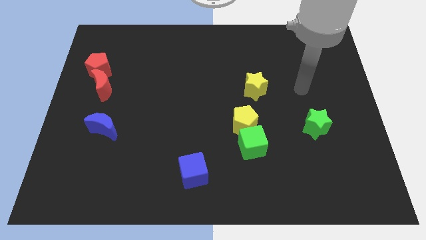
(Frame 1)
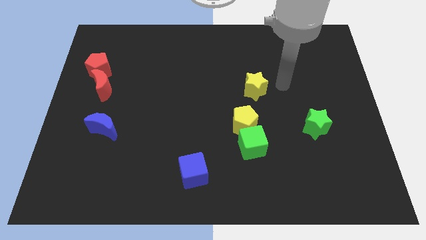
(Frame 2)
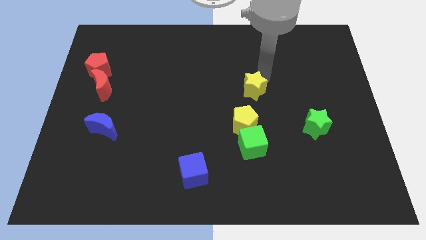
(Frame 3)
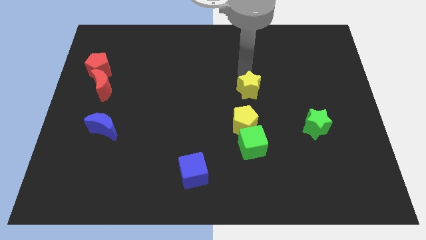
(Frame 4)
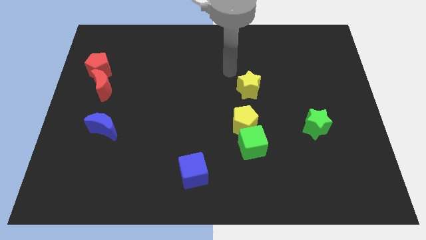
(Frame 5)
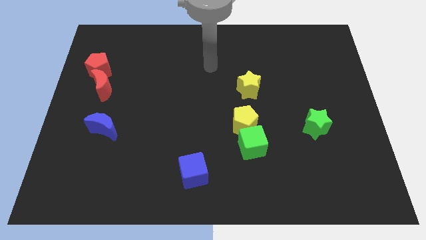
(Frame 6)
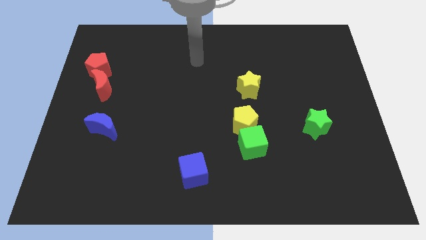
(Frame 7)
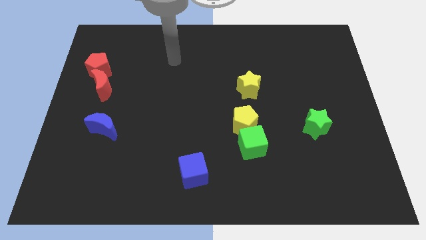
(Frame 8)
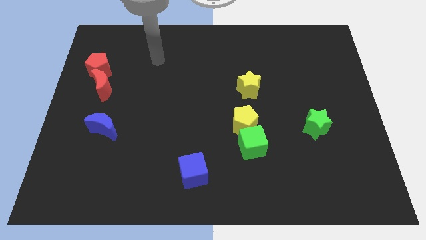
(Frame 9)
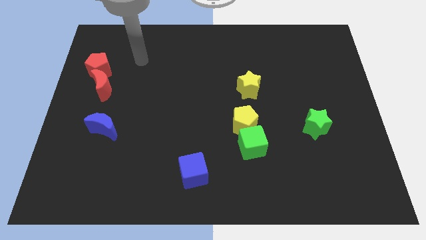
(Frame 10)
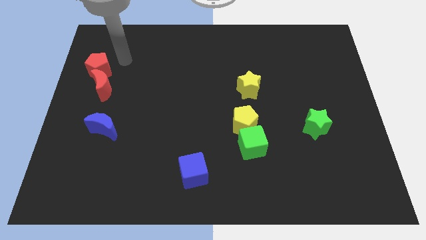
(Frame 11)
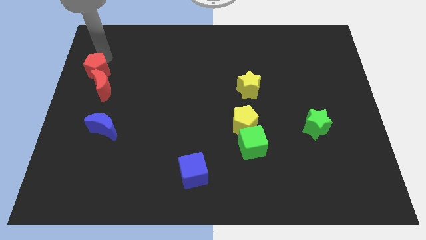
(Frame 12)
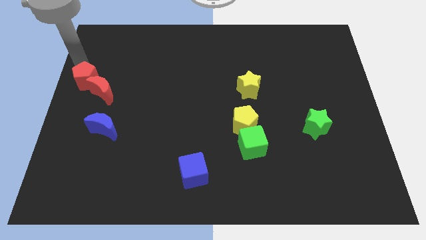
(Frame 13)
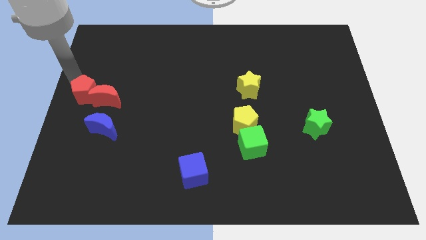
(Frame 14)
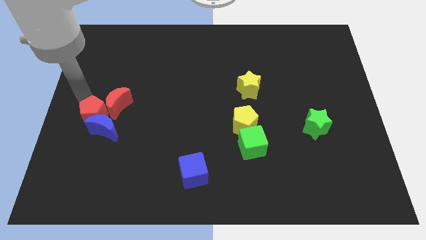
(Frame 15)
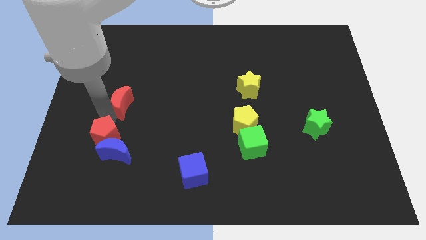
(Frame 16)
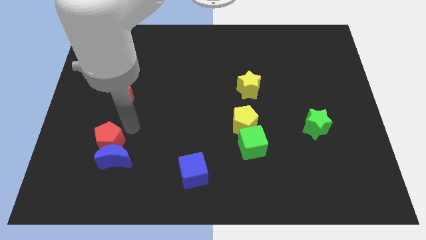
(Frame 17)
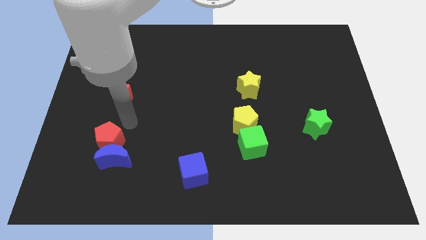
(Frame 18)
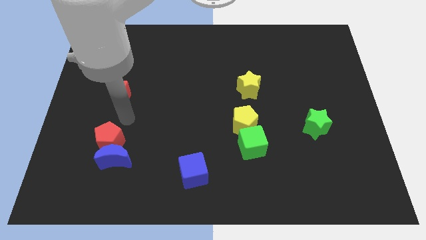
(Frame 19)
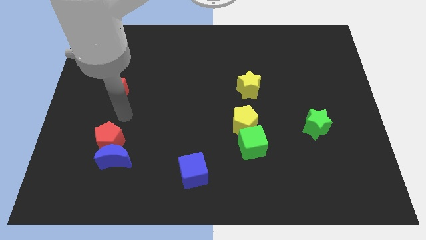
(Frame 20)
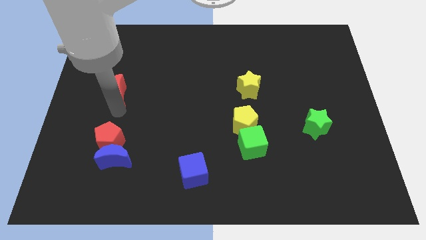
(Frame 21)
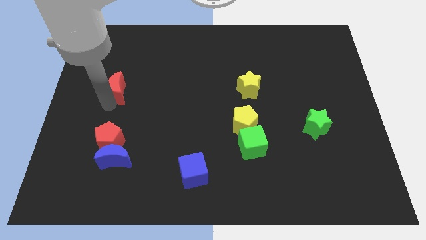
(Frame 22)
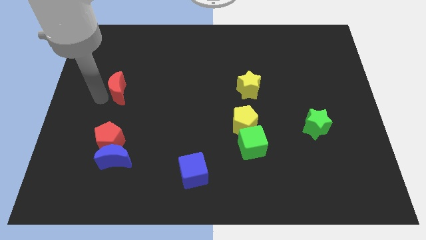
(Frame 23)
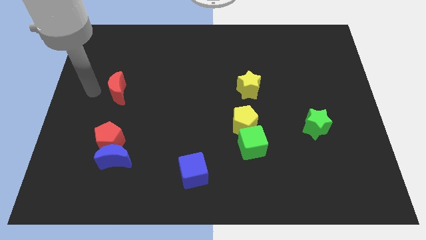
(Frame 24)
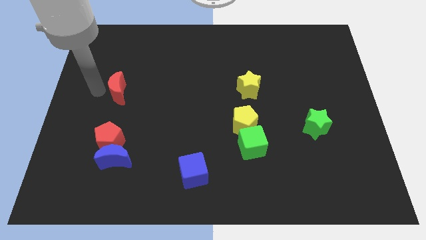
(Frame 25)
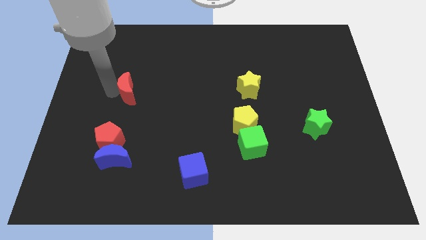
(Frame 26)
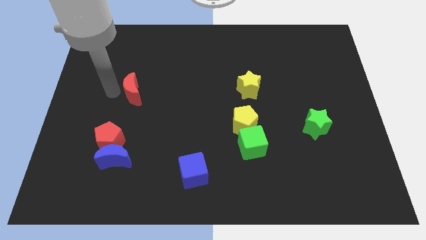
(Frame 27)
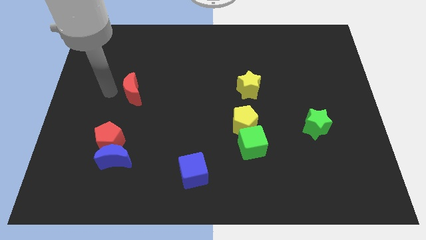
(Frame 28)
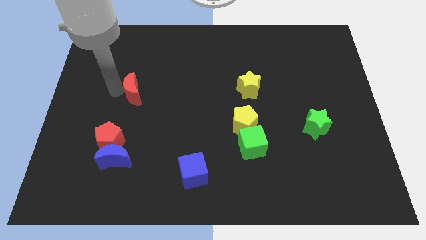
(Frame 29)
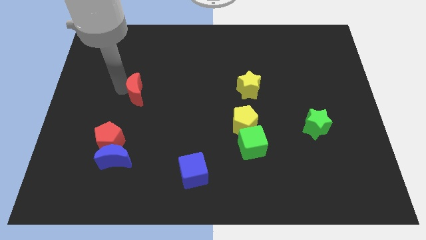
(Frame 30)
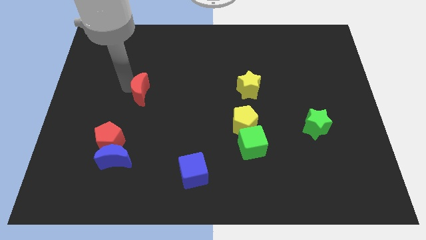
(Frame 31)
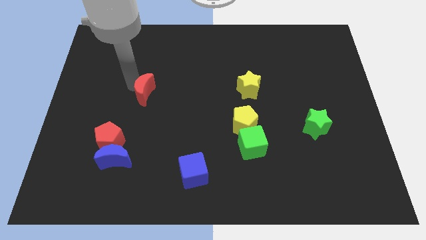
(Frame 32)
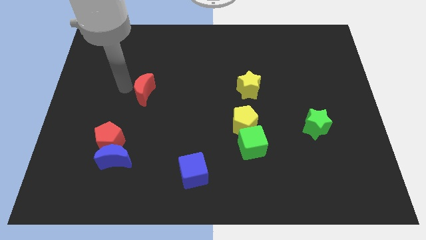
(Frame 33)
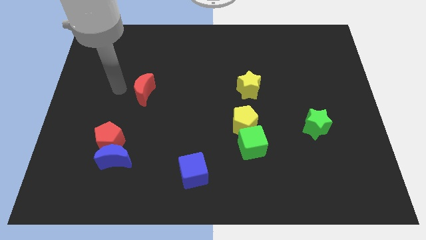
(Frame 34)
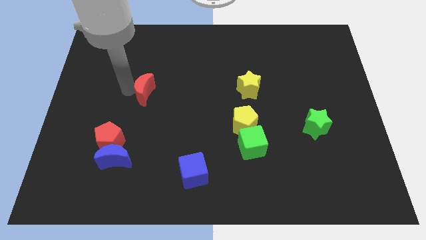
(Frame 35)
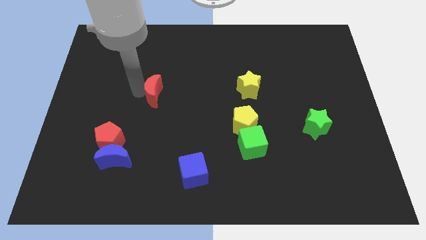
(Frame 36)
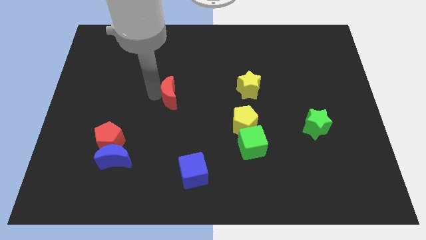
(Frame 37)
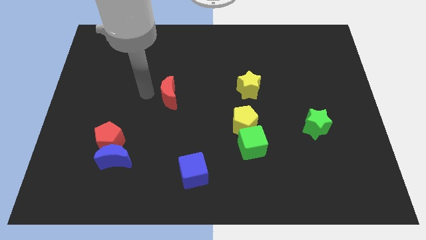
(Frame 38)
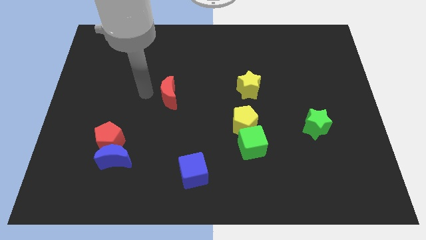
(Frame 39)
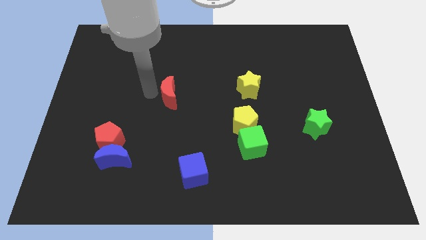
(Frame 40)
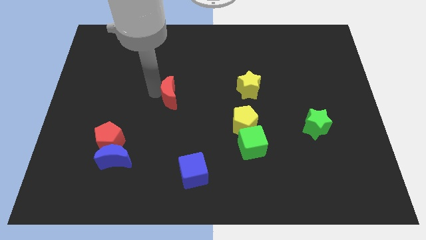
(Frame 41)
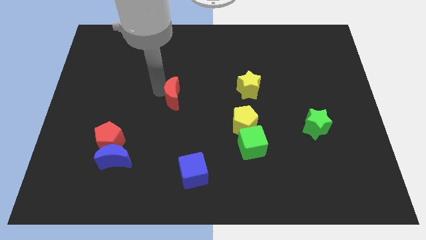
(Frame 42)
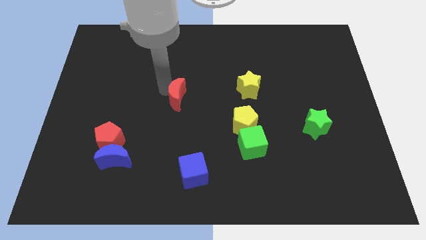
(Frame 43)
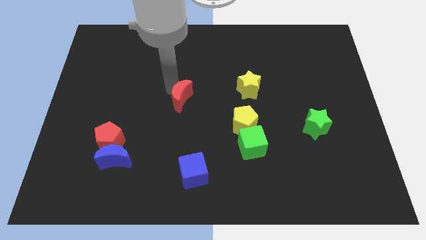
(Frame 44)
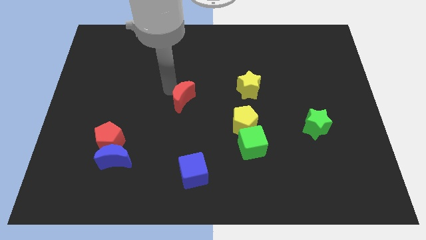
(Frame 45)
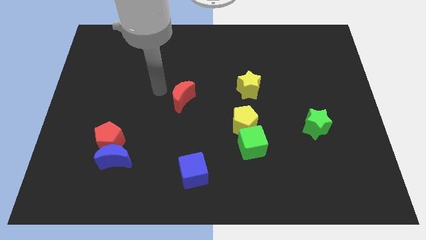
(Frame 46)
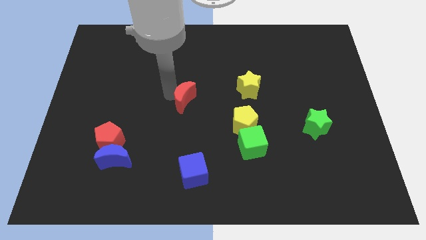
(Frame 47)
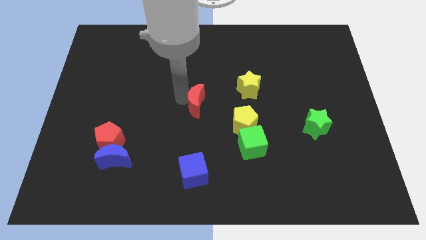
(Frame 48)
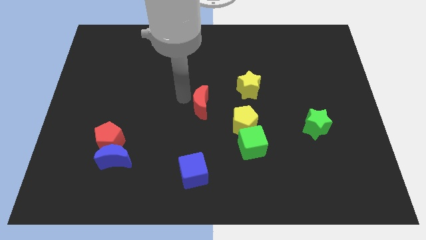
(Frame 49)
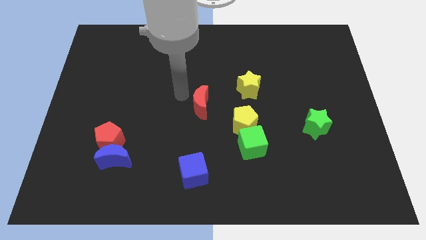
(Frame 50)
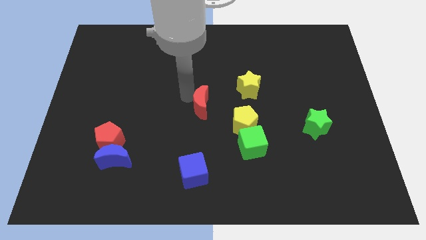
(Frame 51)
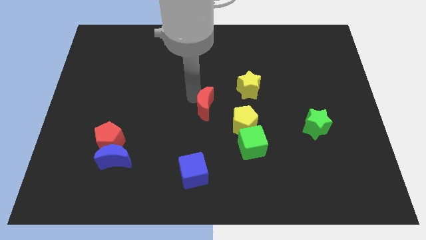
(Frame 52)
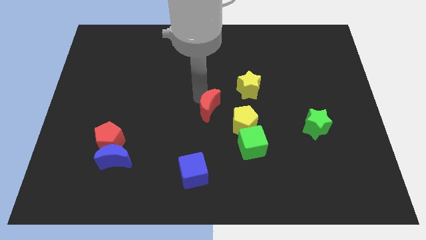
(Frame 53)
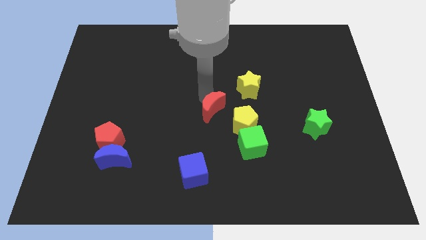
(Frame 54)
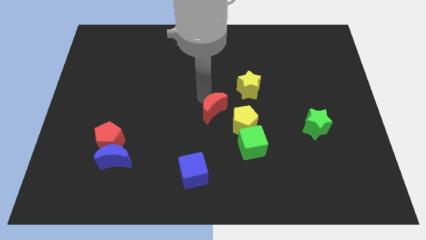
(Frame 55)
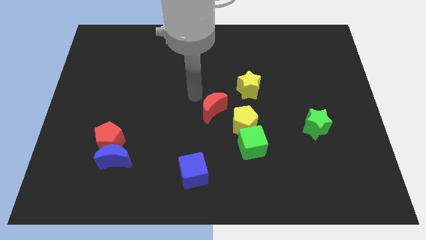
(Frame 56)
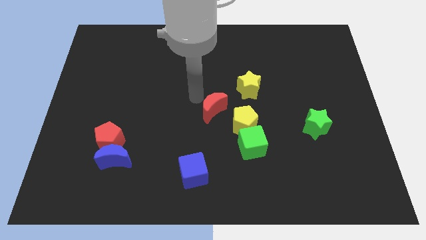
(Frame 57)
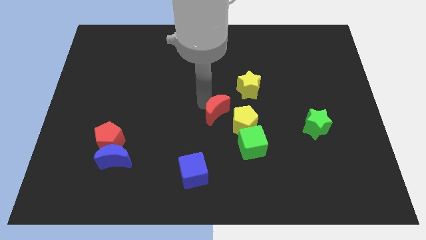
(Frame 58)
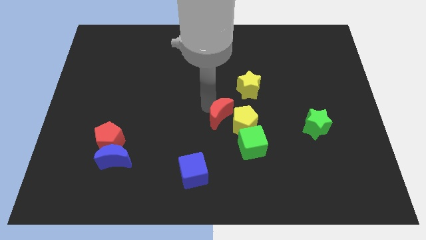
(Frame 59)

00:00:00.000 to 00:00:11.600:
move the red moon next to the yellow pentagon
